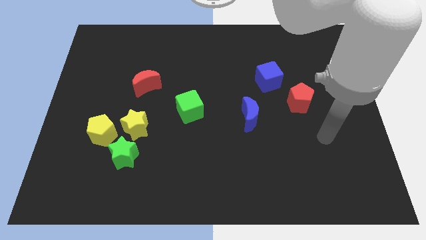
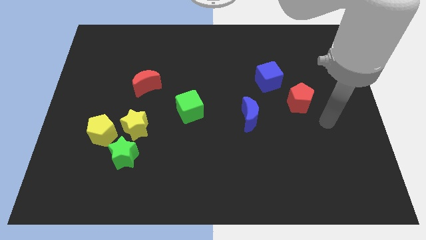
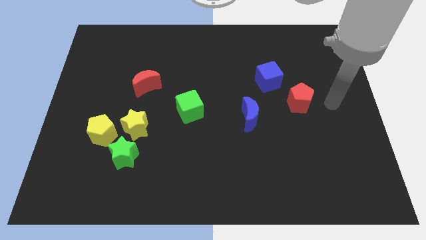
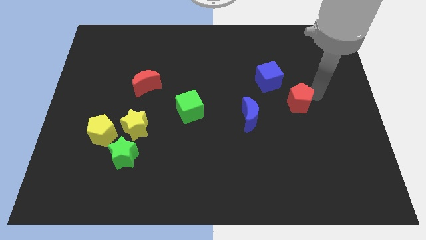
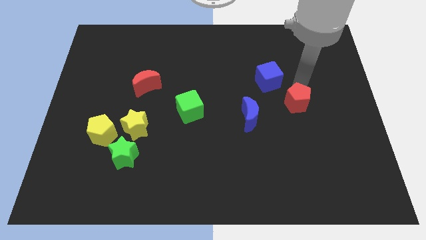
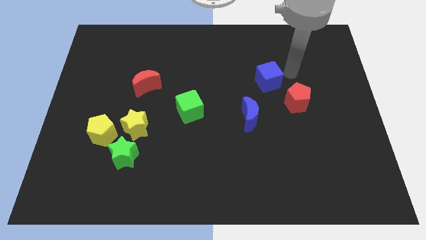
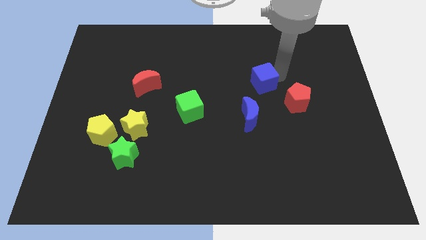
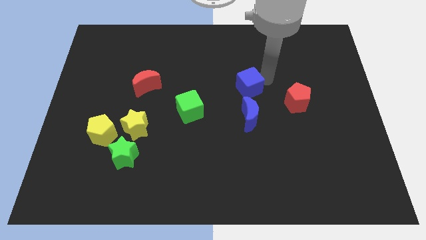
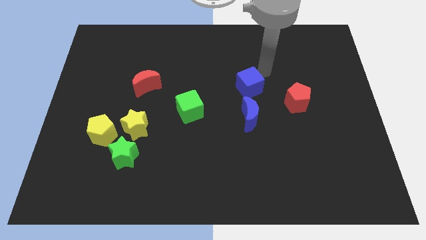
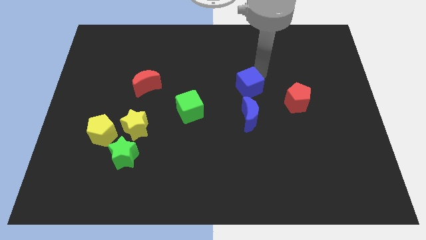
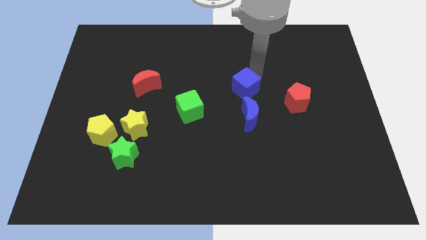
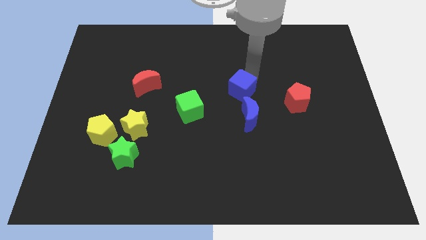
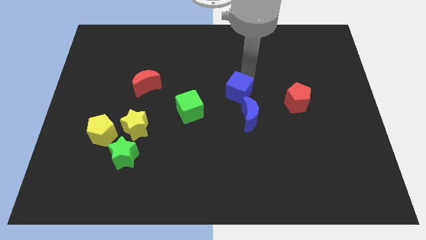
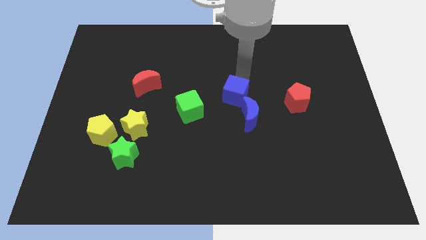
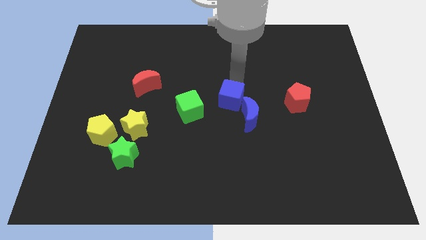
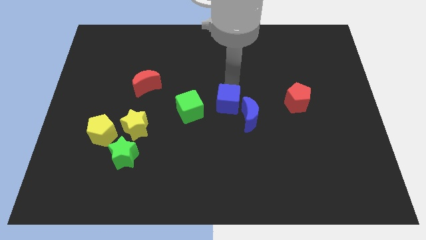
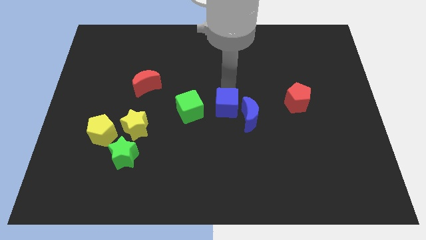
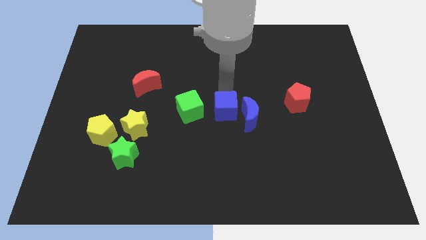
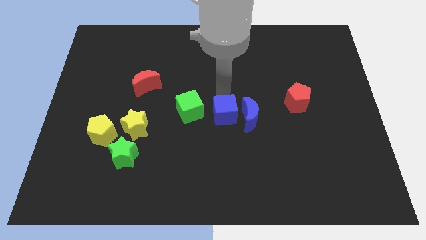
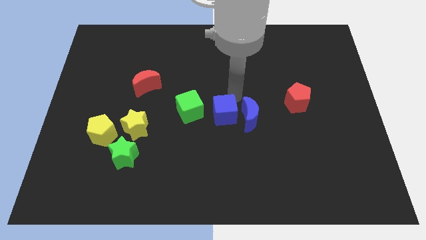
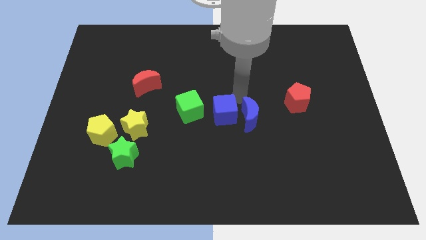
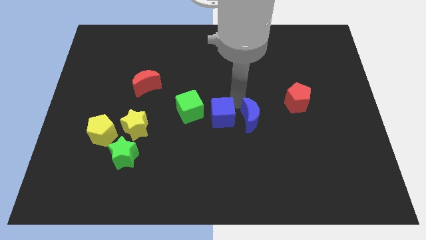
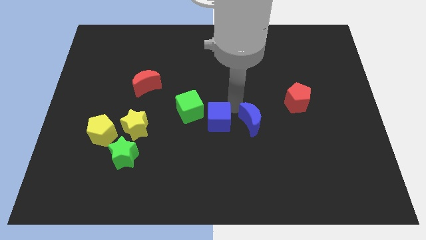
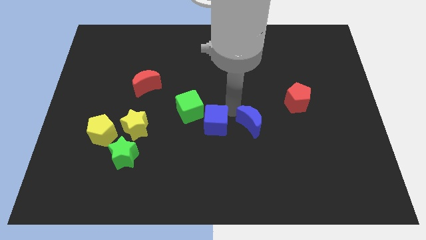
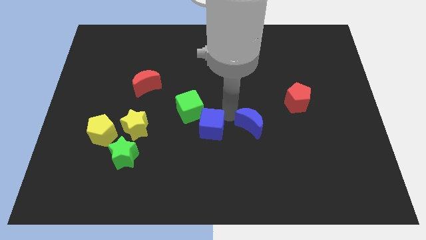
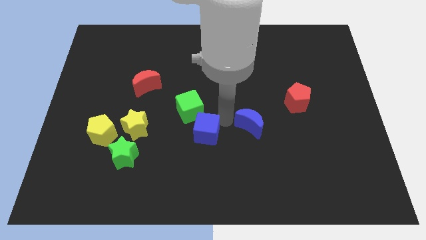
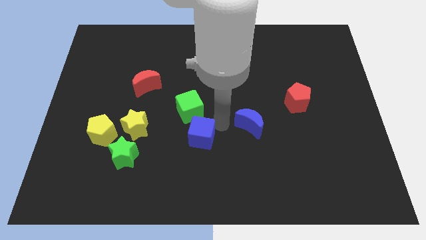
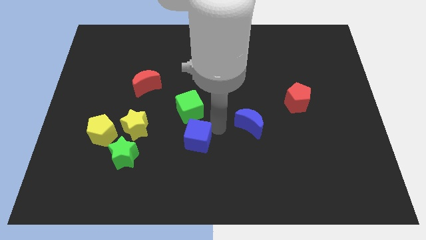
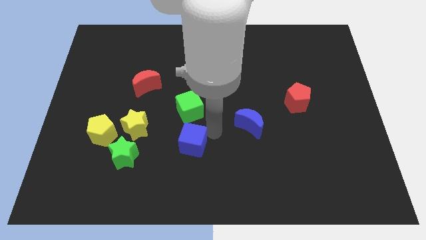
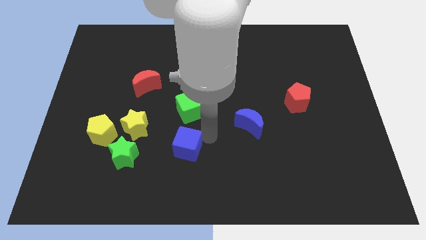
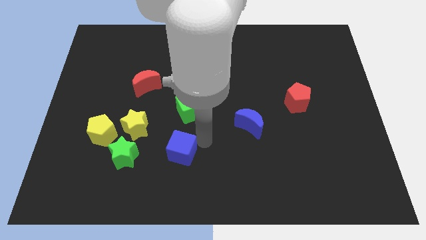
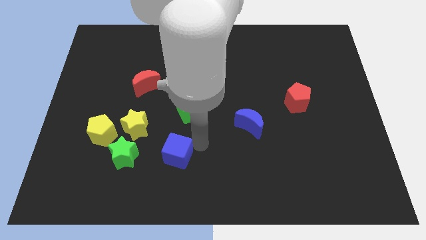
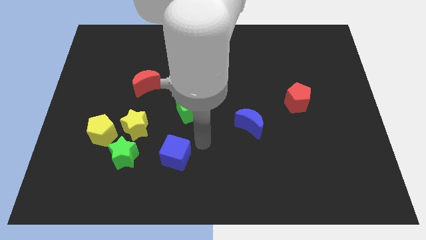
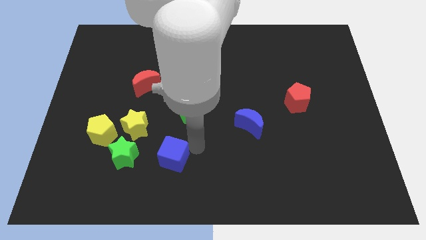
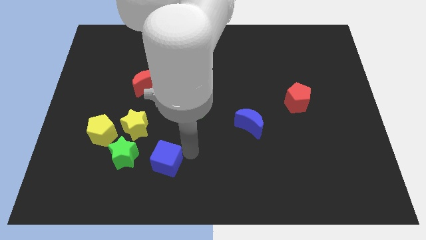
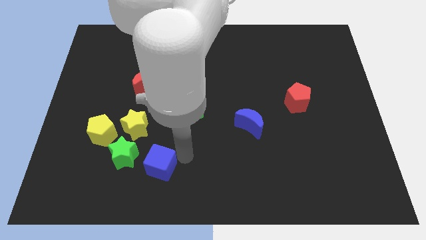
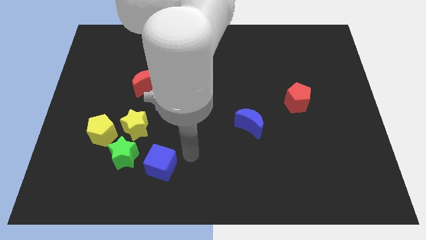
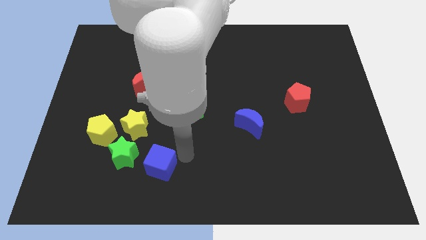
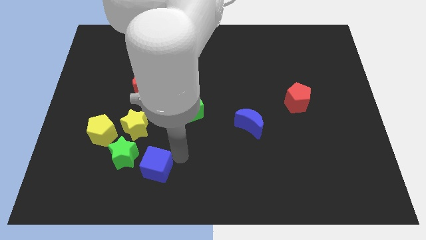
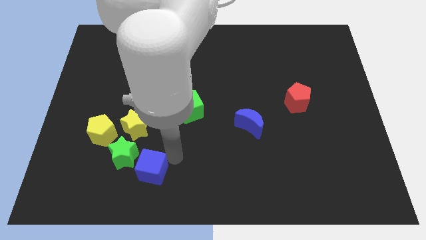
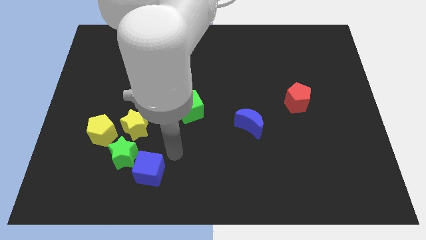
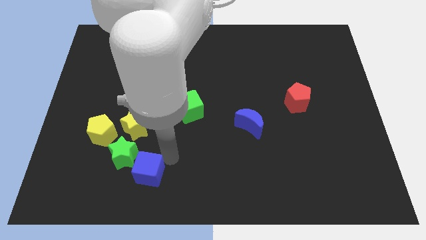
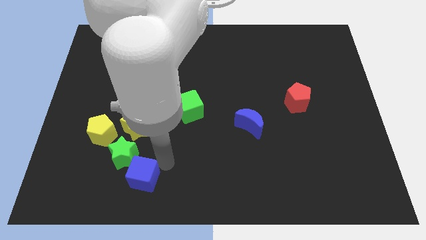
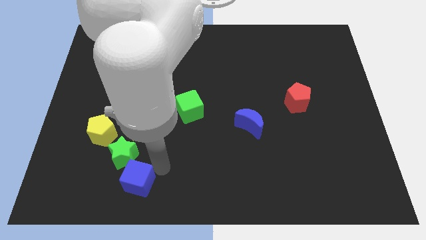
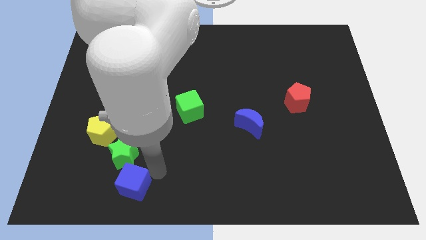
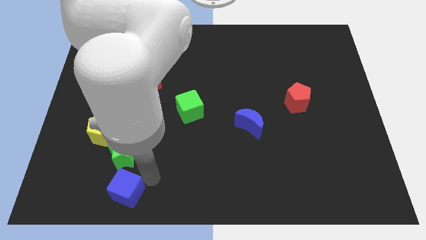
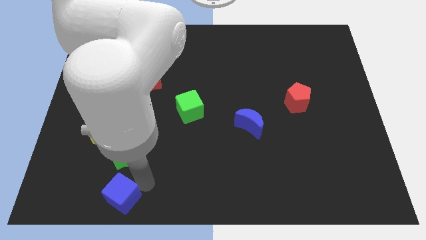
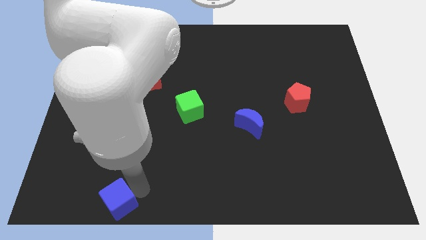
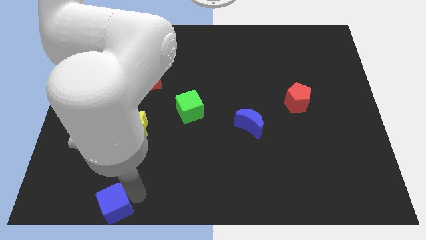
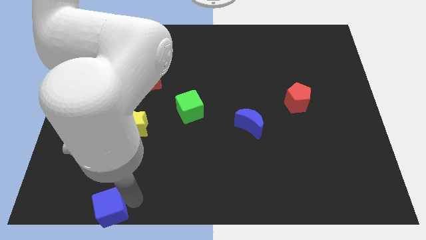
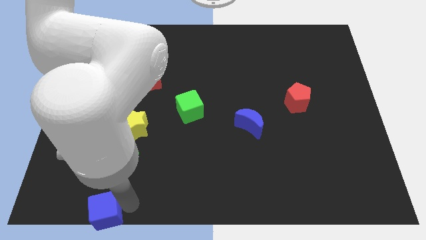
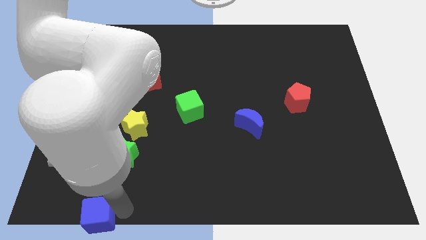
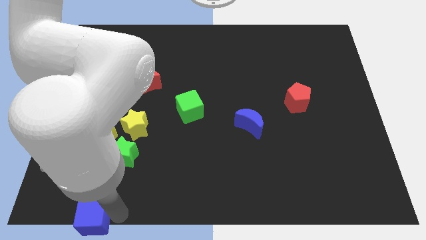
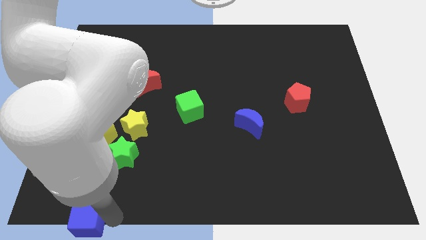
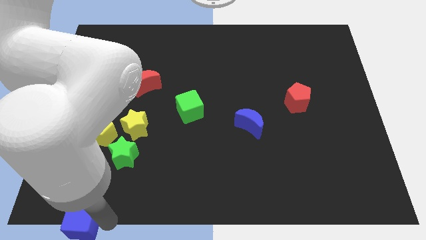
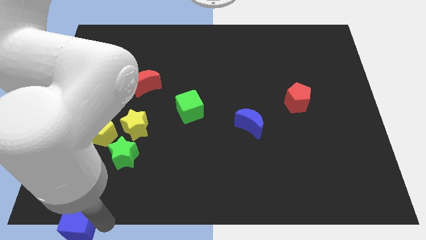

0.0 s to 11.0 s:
slide the blue cube to the bottom left corner

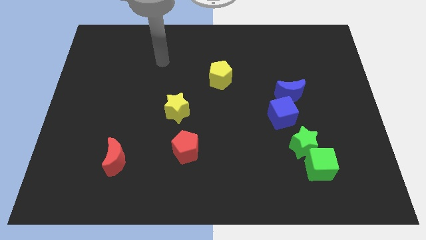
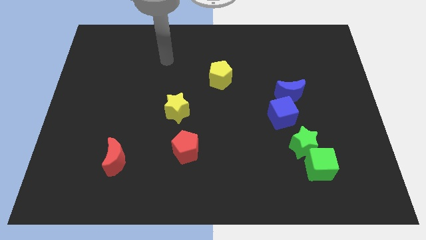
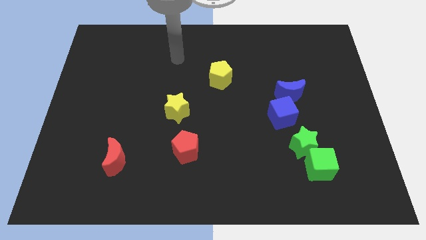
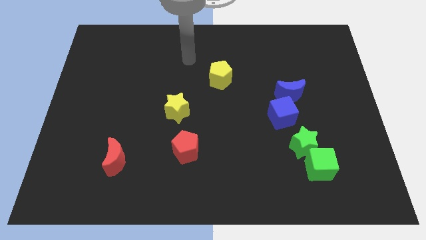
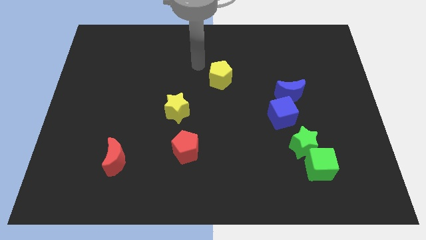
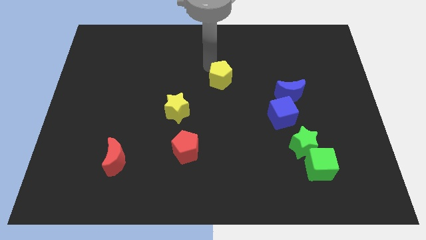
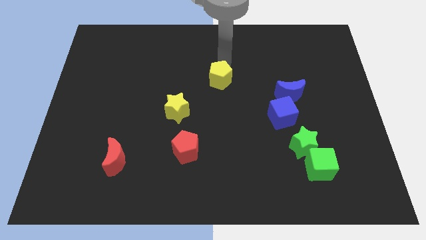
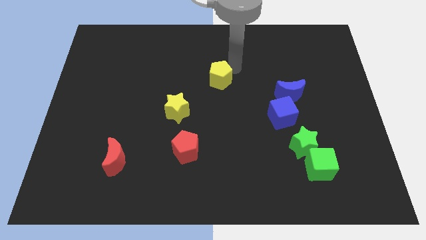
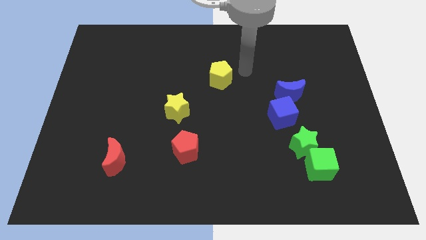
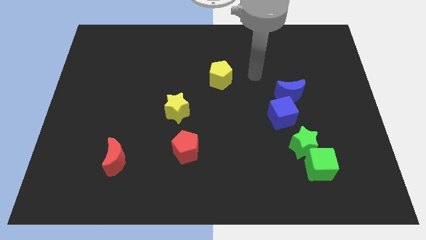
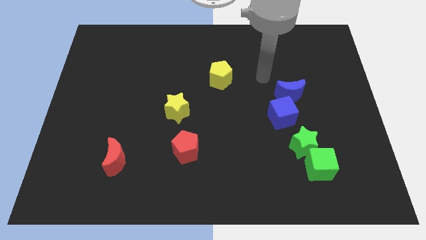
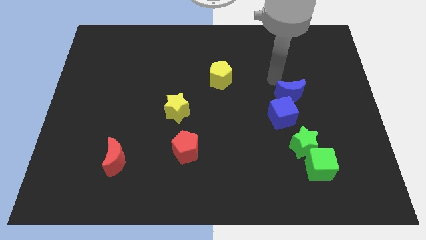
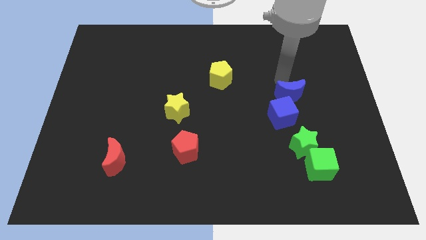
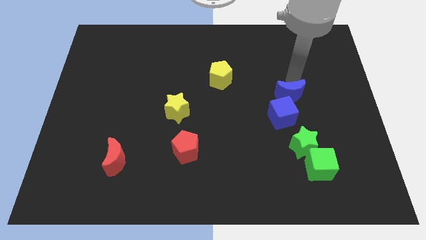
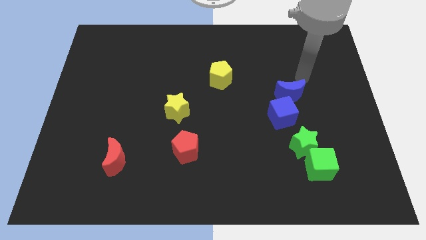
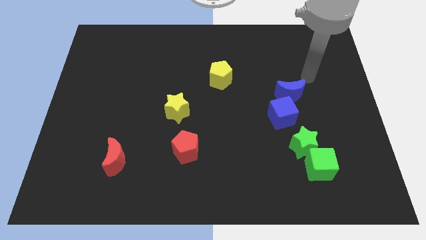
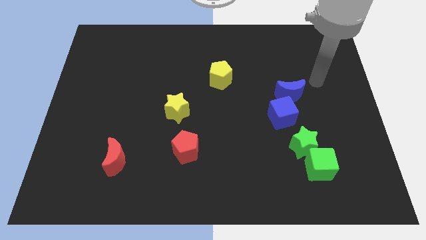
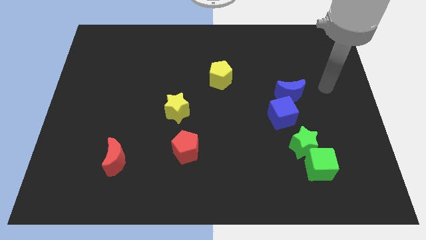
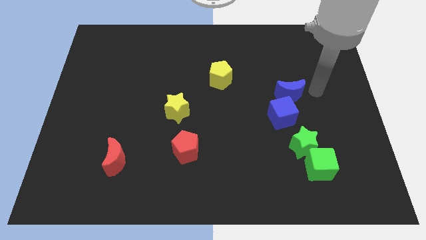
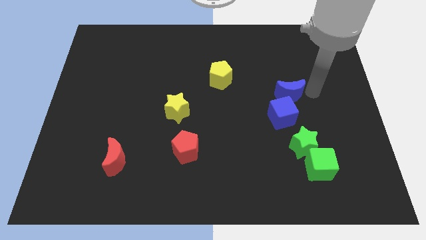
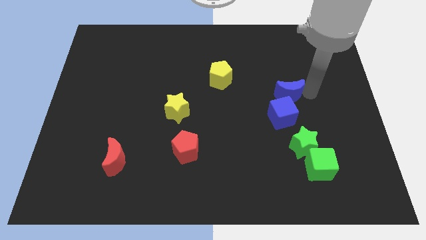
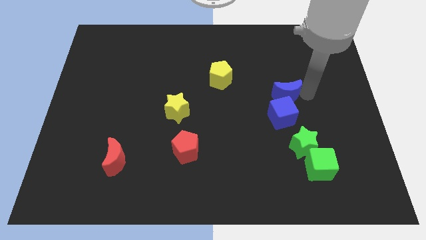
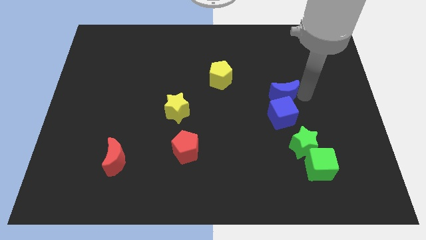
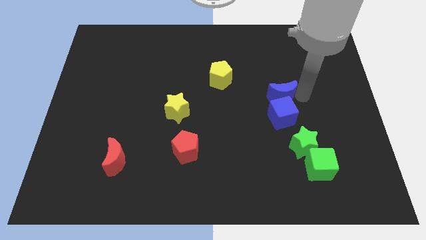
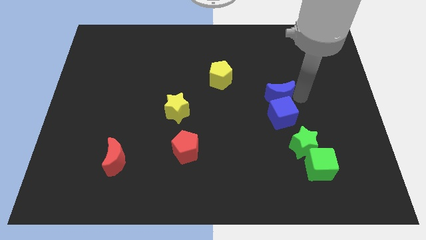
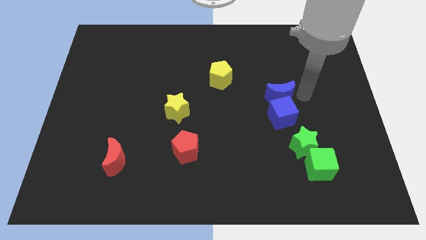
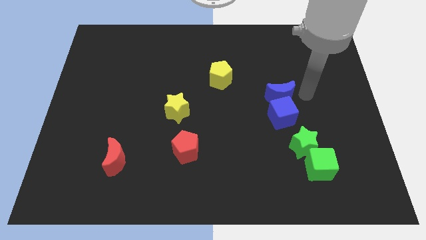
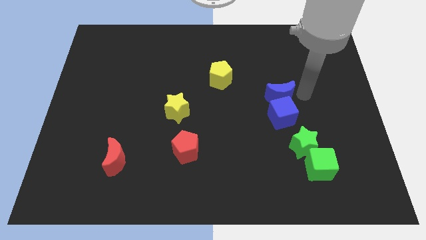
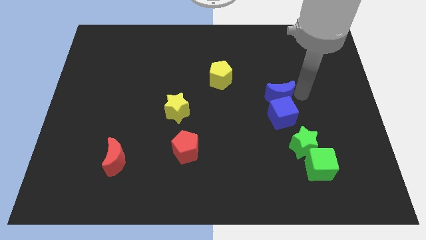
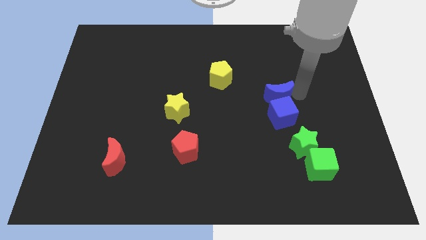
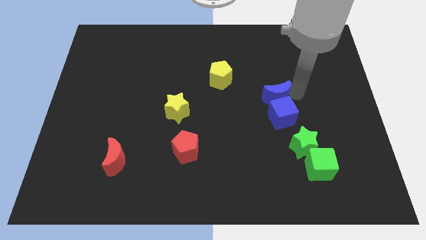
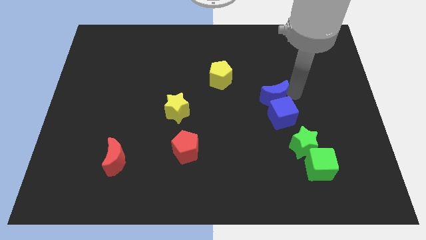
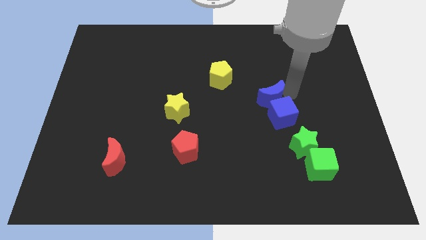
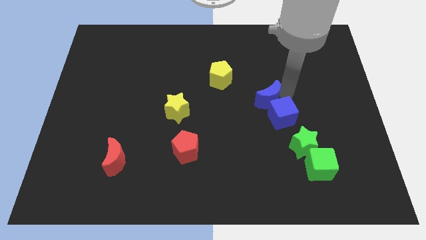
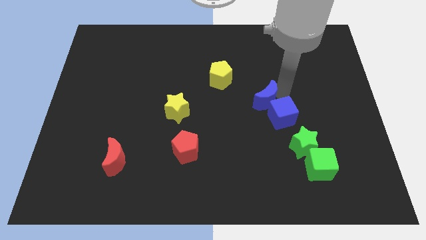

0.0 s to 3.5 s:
push the blue moon to the middle
